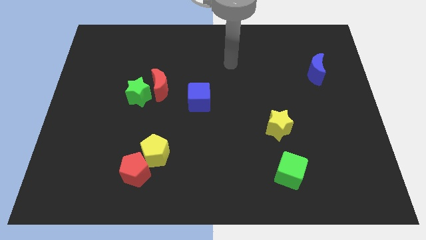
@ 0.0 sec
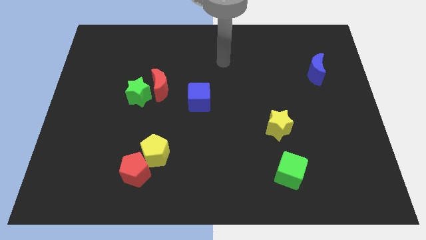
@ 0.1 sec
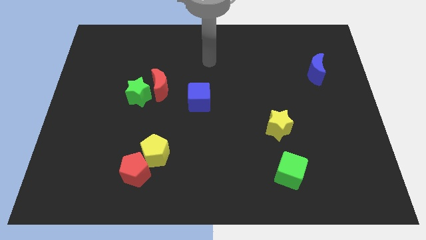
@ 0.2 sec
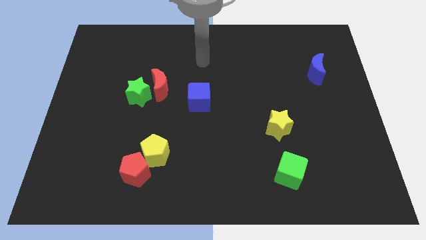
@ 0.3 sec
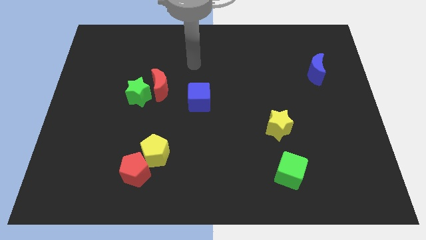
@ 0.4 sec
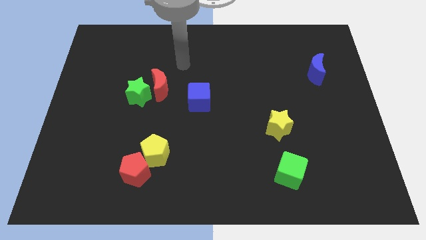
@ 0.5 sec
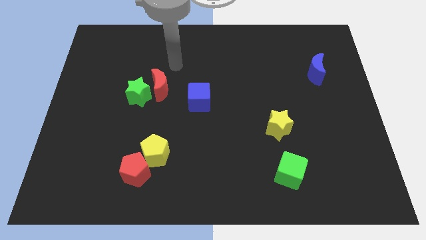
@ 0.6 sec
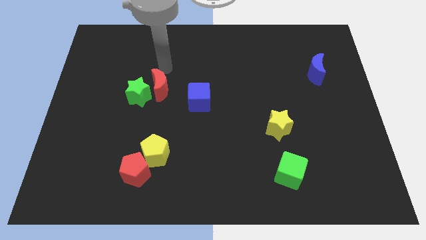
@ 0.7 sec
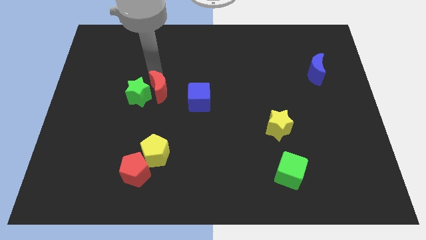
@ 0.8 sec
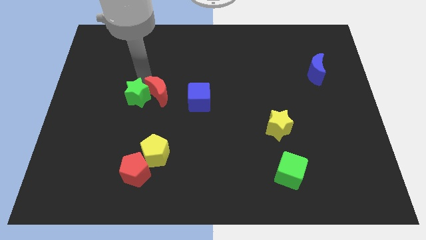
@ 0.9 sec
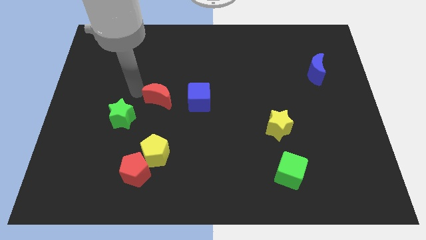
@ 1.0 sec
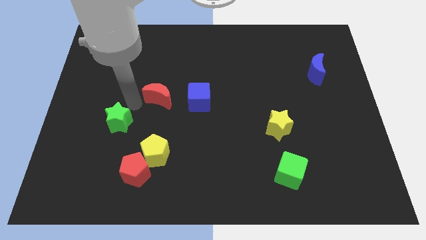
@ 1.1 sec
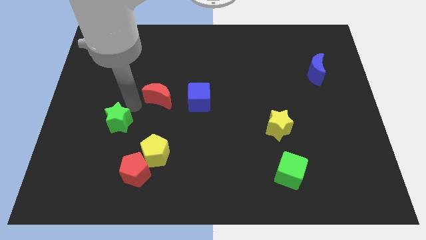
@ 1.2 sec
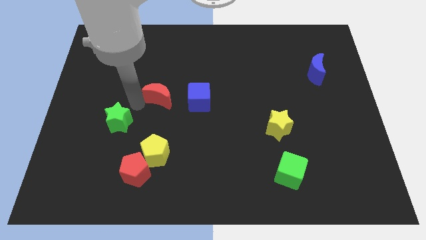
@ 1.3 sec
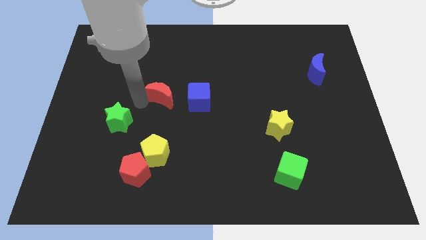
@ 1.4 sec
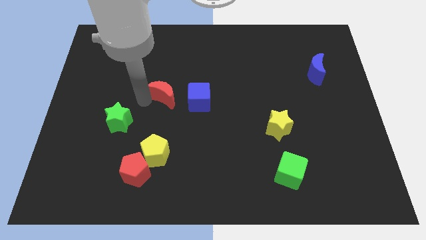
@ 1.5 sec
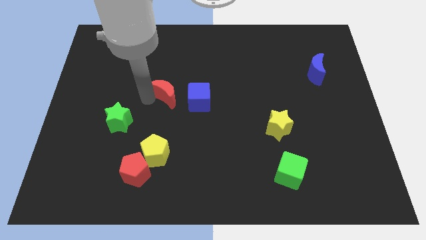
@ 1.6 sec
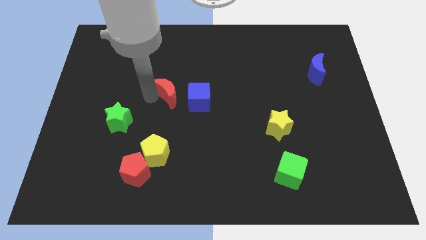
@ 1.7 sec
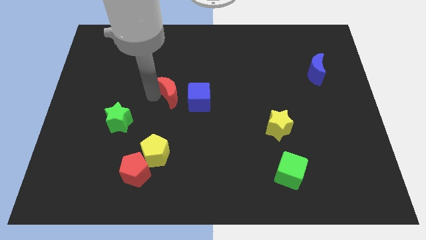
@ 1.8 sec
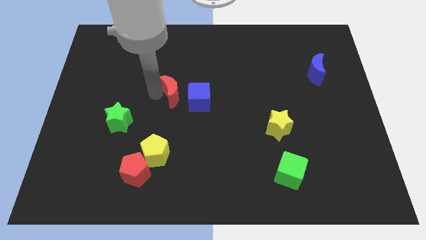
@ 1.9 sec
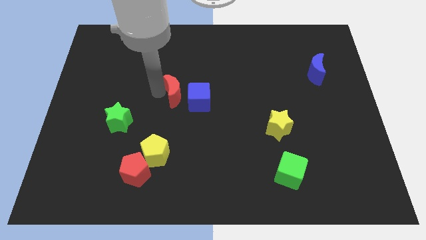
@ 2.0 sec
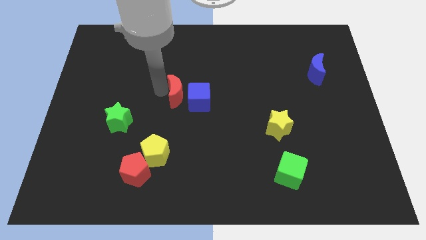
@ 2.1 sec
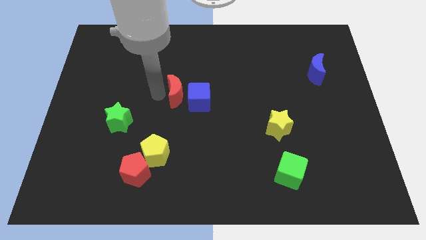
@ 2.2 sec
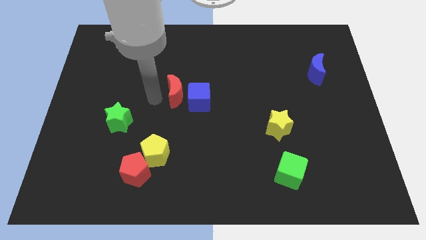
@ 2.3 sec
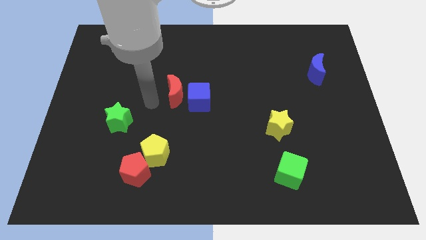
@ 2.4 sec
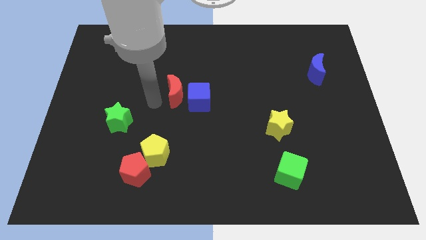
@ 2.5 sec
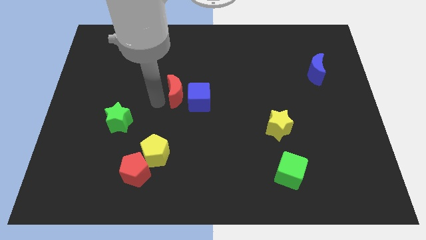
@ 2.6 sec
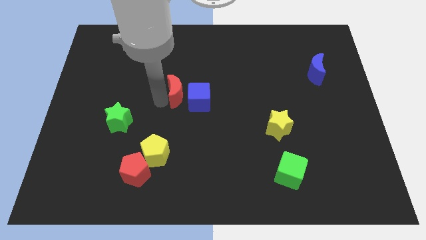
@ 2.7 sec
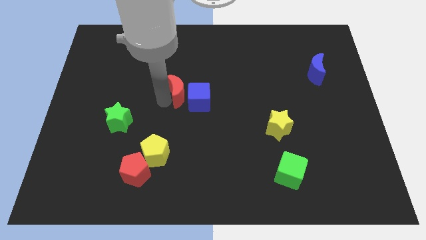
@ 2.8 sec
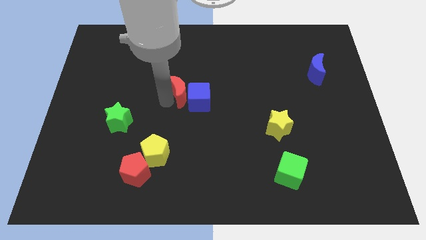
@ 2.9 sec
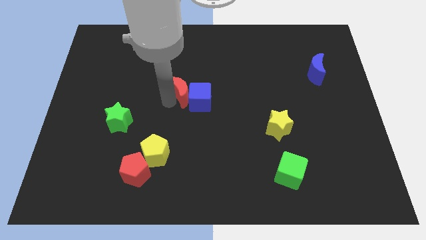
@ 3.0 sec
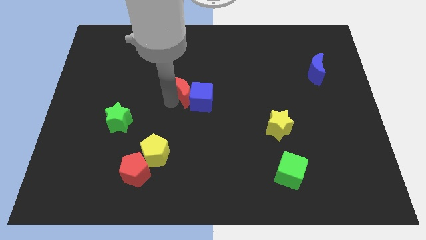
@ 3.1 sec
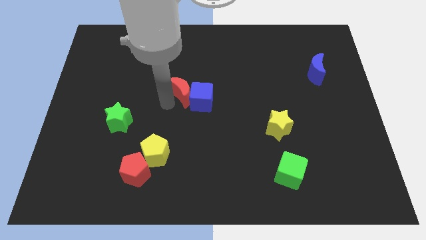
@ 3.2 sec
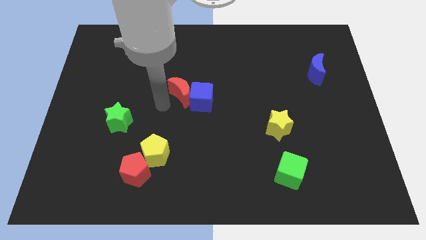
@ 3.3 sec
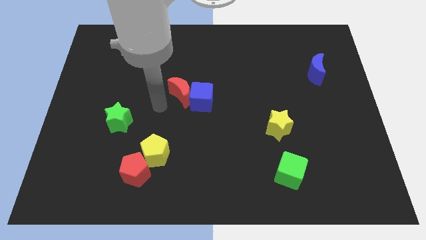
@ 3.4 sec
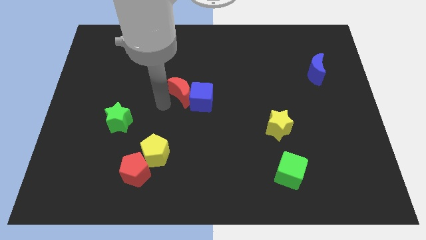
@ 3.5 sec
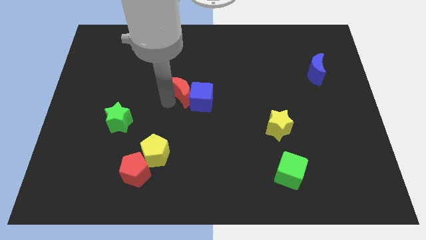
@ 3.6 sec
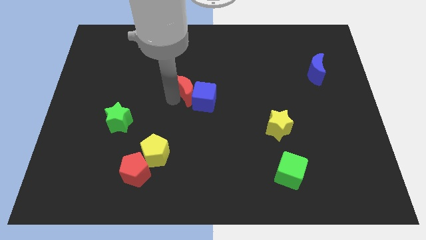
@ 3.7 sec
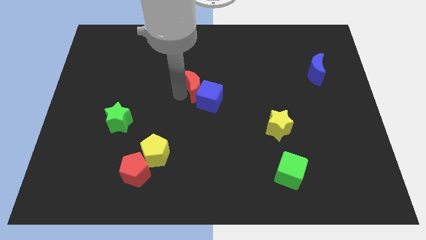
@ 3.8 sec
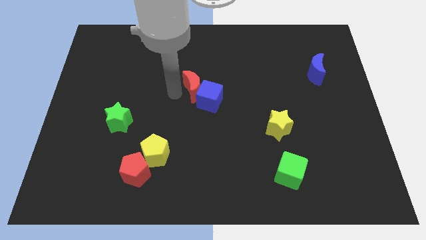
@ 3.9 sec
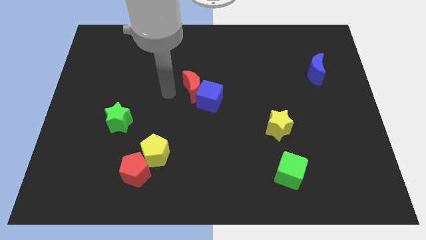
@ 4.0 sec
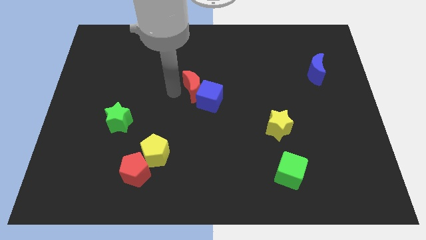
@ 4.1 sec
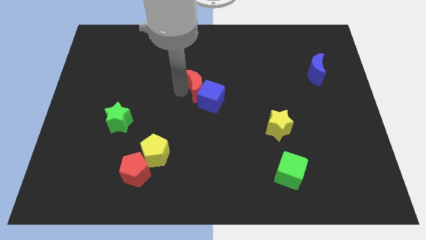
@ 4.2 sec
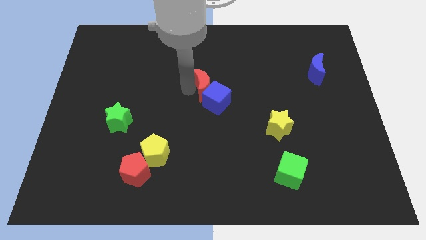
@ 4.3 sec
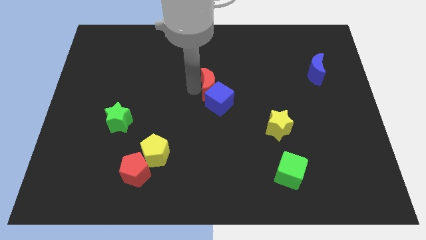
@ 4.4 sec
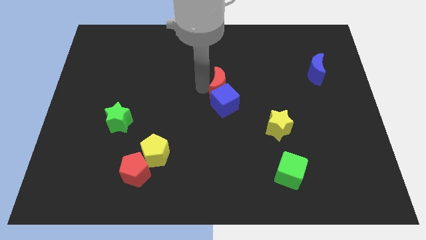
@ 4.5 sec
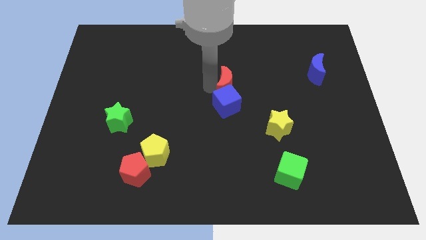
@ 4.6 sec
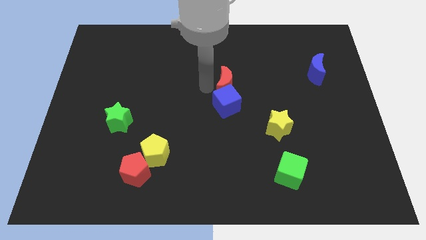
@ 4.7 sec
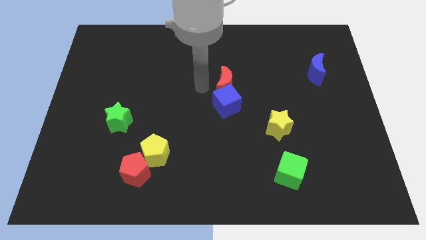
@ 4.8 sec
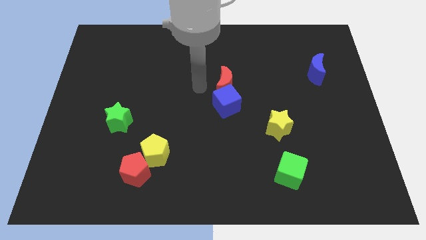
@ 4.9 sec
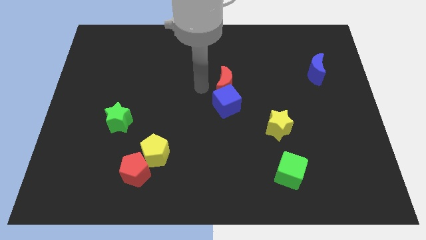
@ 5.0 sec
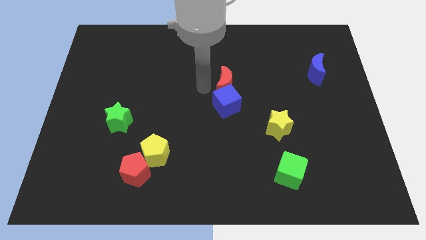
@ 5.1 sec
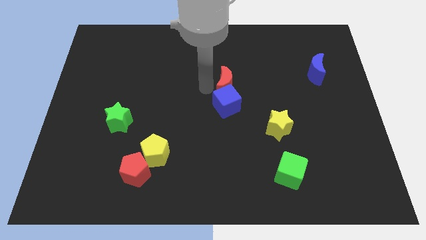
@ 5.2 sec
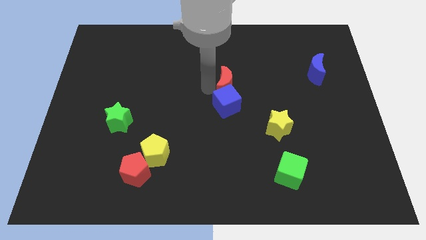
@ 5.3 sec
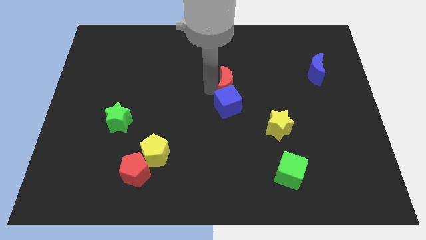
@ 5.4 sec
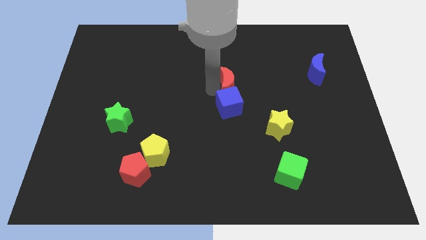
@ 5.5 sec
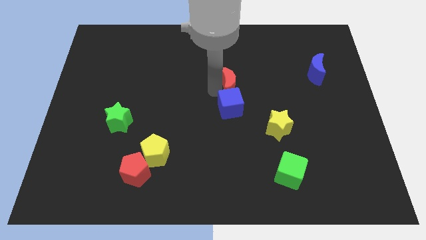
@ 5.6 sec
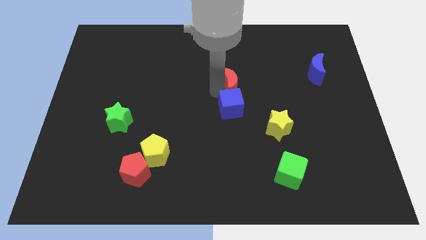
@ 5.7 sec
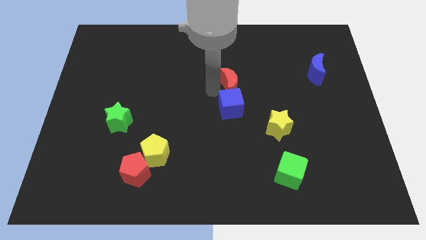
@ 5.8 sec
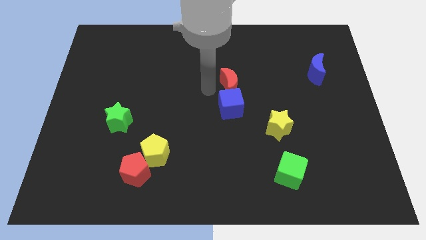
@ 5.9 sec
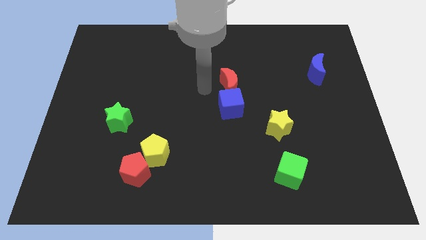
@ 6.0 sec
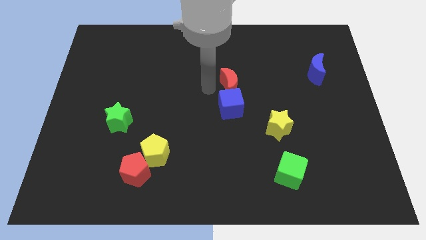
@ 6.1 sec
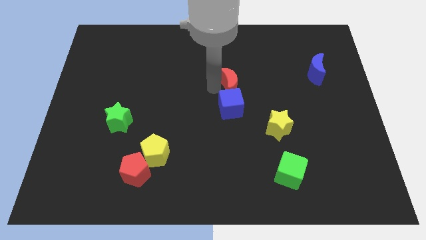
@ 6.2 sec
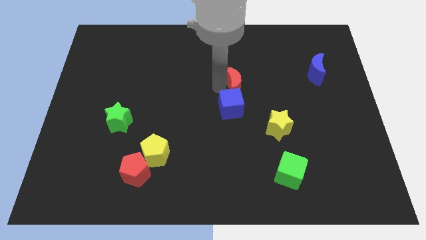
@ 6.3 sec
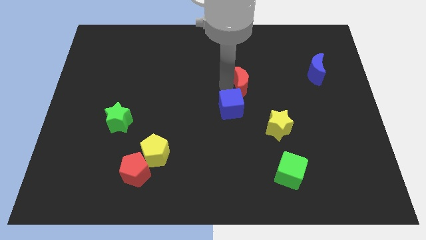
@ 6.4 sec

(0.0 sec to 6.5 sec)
push the red moon right

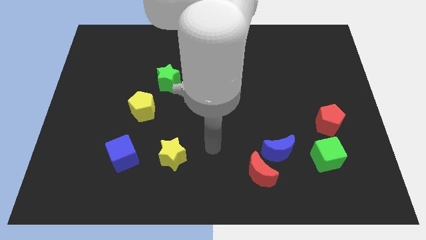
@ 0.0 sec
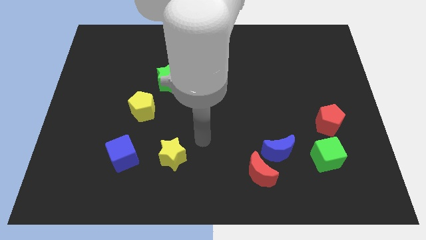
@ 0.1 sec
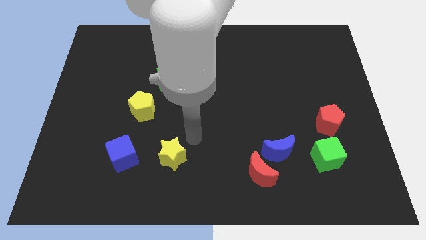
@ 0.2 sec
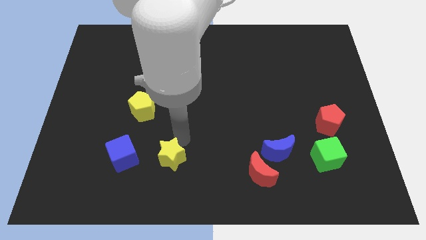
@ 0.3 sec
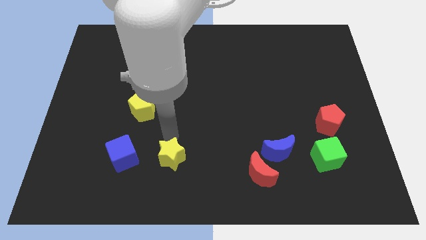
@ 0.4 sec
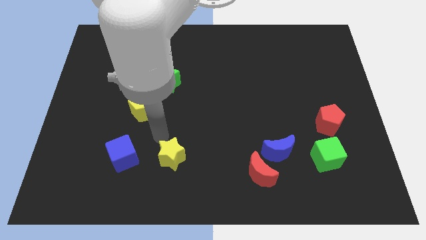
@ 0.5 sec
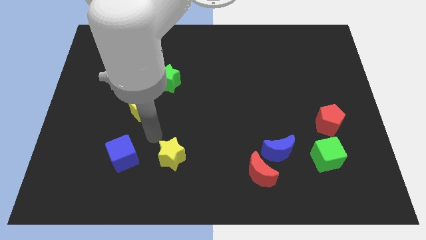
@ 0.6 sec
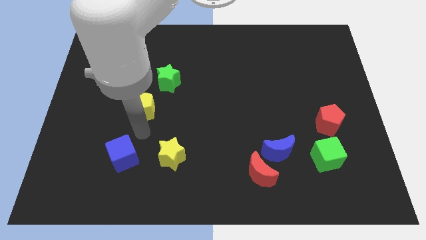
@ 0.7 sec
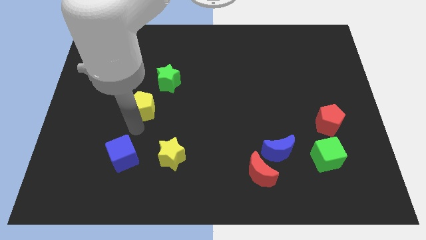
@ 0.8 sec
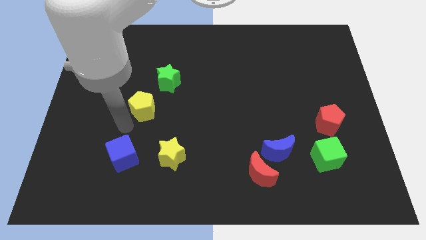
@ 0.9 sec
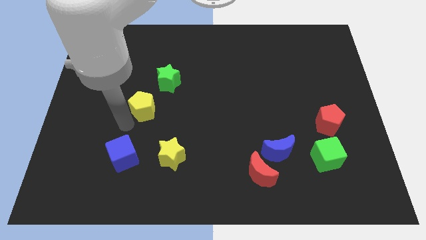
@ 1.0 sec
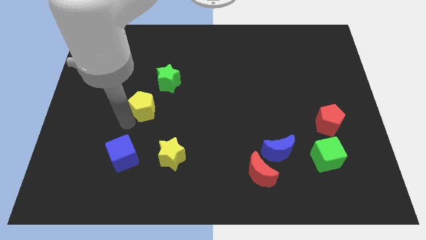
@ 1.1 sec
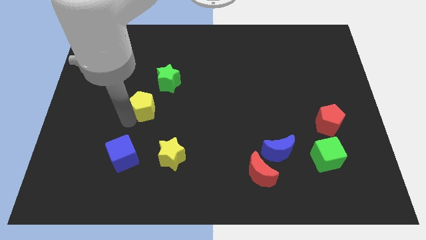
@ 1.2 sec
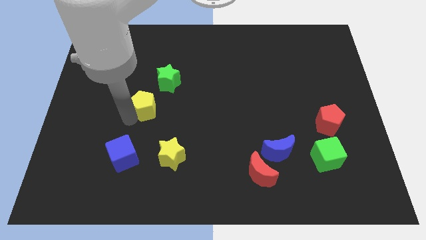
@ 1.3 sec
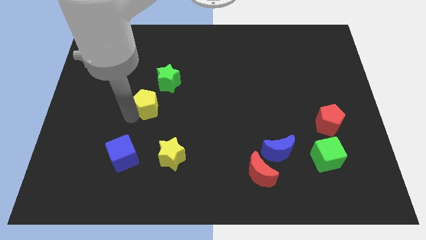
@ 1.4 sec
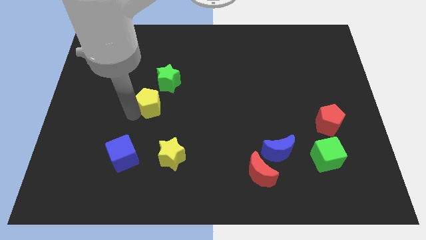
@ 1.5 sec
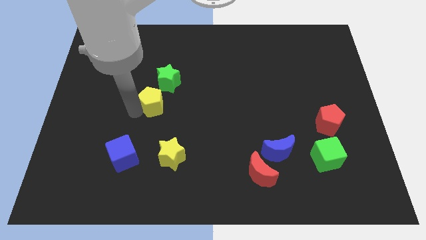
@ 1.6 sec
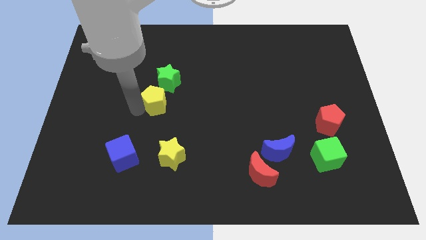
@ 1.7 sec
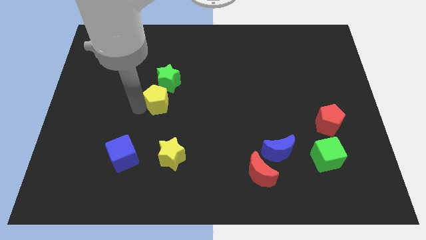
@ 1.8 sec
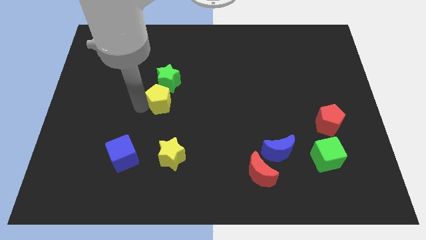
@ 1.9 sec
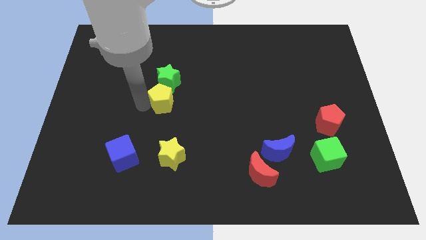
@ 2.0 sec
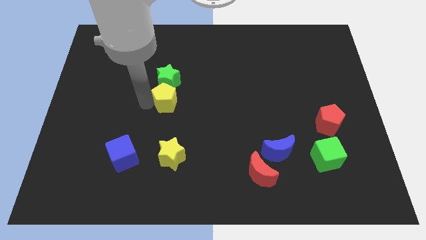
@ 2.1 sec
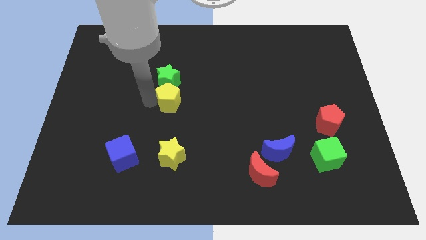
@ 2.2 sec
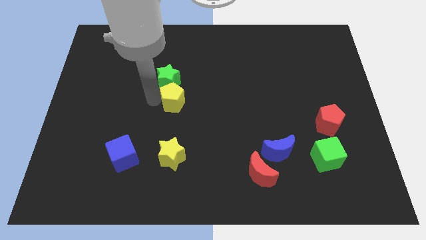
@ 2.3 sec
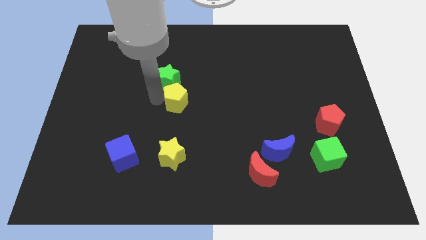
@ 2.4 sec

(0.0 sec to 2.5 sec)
slightly push the yellow pentagon upwards and right diagonally
